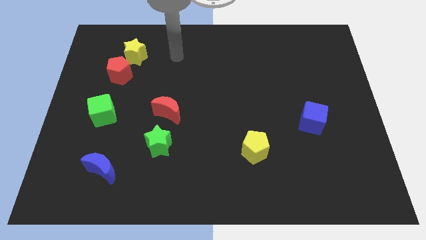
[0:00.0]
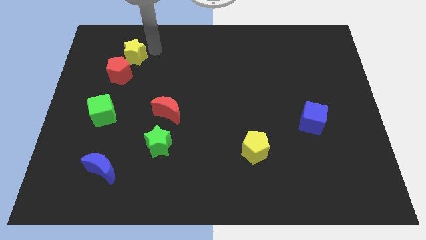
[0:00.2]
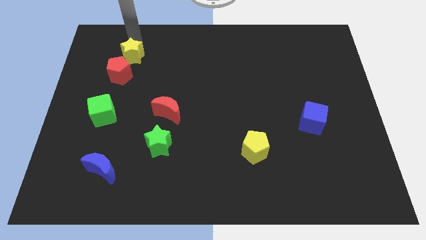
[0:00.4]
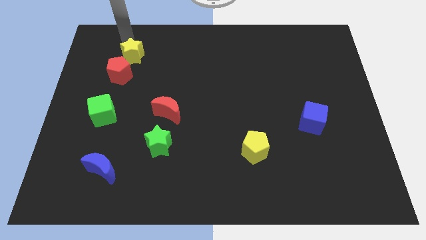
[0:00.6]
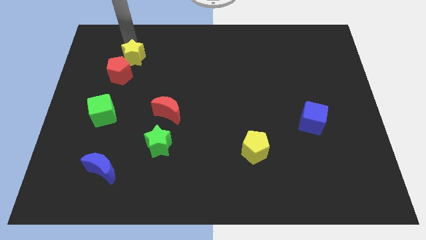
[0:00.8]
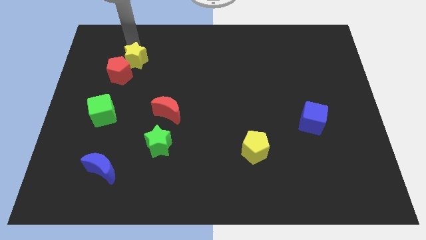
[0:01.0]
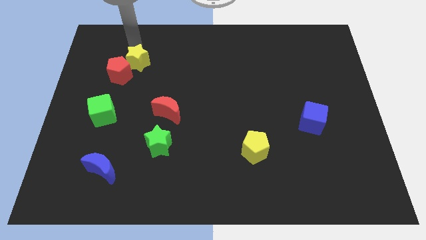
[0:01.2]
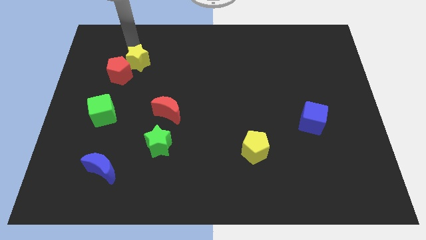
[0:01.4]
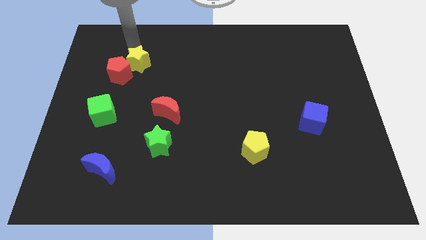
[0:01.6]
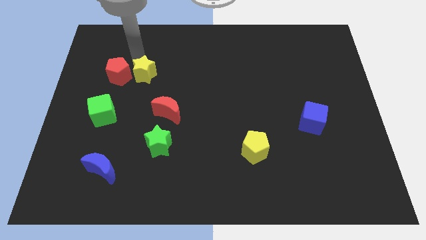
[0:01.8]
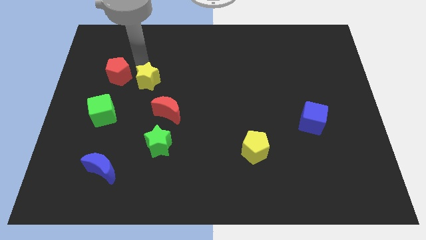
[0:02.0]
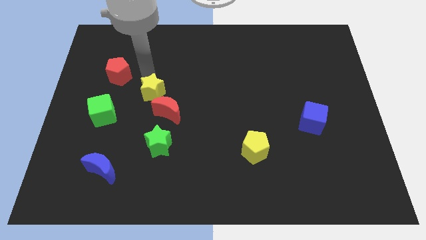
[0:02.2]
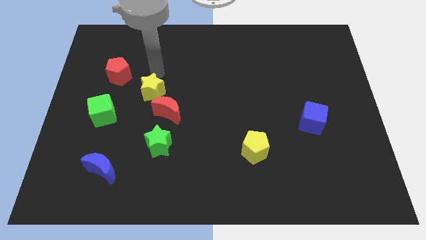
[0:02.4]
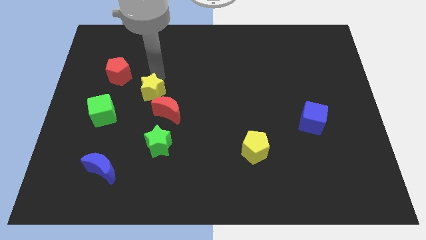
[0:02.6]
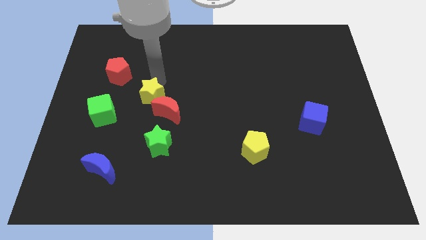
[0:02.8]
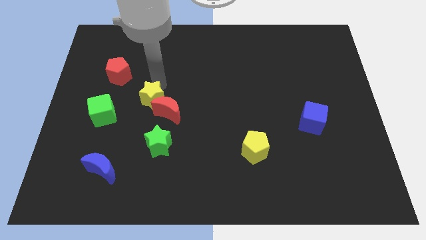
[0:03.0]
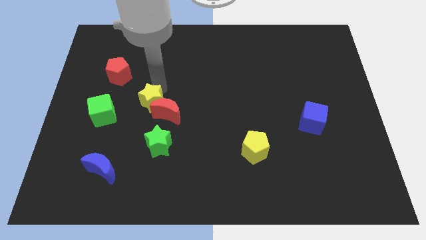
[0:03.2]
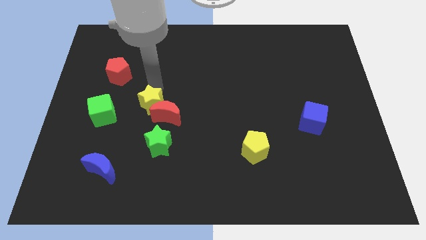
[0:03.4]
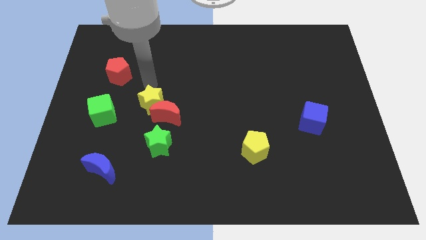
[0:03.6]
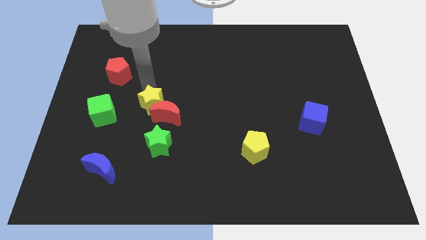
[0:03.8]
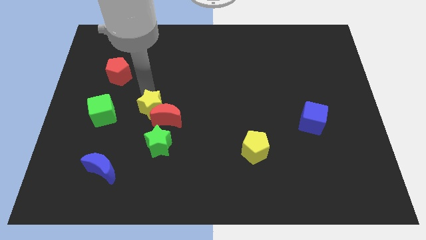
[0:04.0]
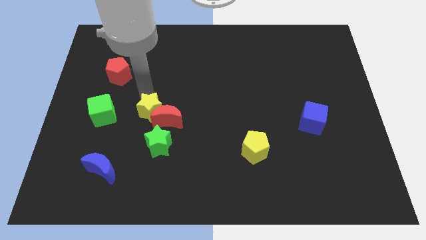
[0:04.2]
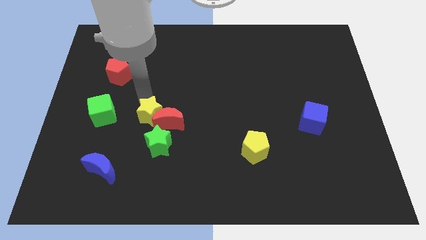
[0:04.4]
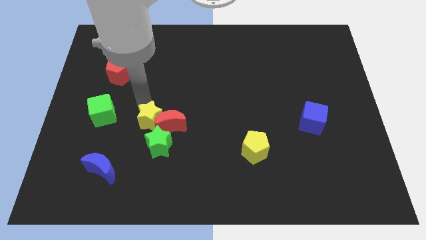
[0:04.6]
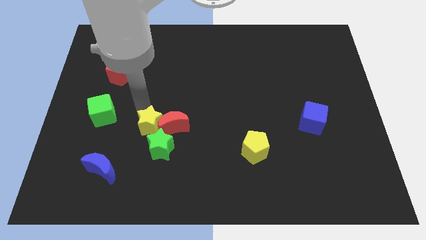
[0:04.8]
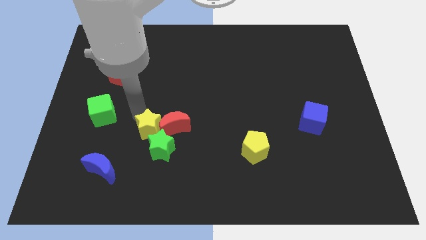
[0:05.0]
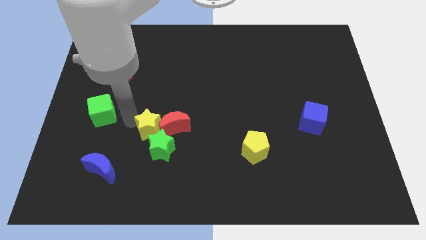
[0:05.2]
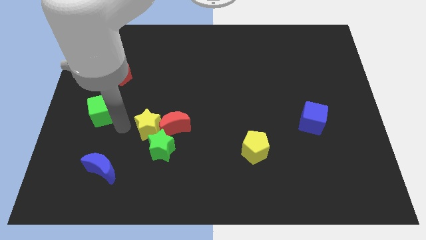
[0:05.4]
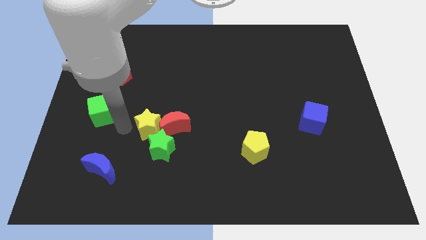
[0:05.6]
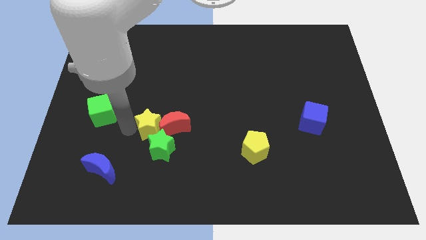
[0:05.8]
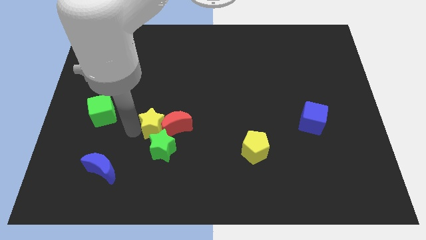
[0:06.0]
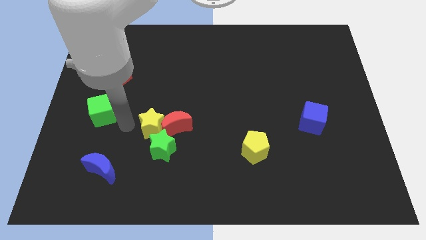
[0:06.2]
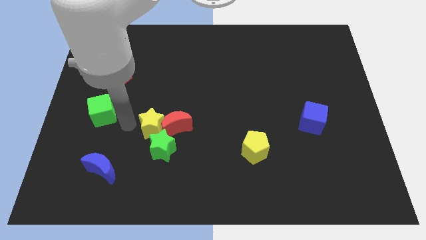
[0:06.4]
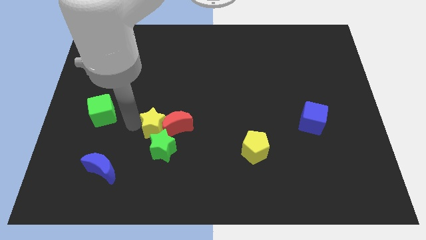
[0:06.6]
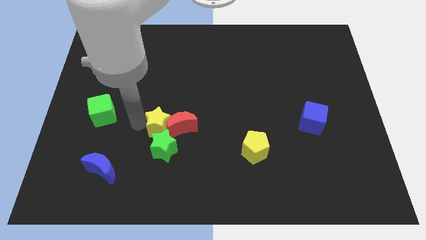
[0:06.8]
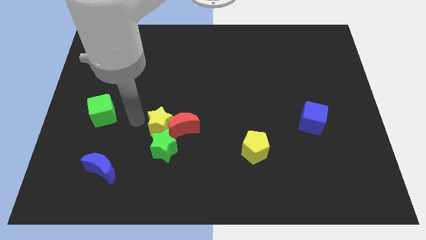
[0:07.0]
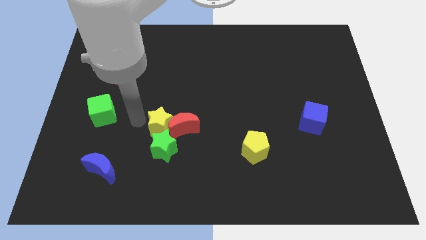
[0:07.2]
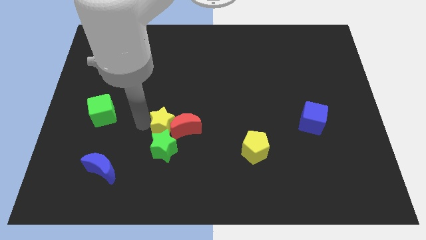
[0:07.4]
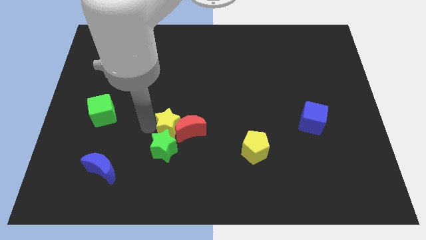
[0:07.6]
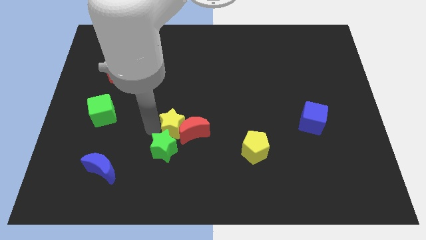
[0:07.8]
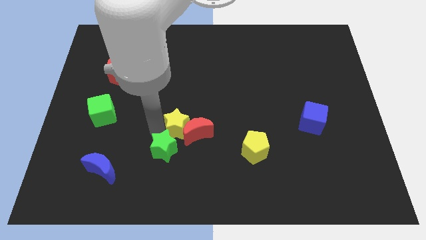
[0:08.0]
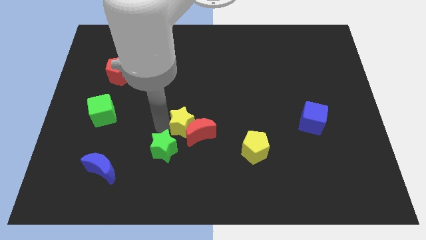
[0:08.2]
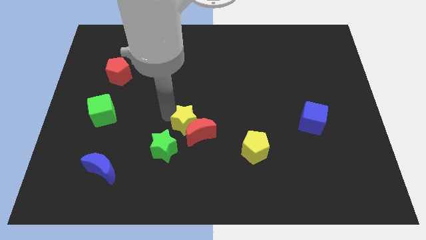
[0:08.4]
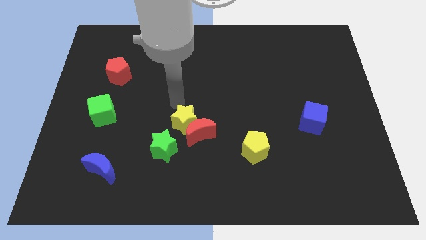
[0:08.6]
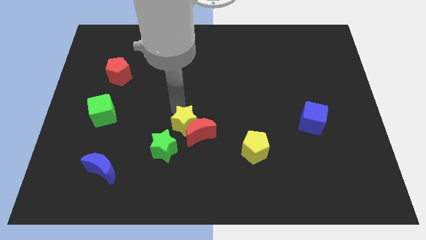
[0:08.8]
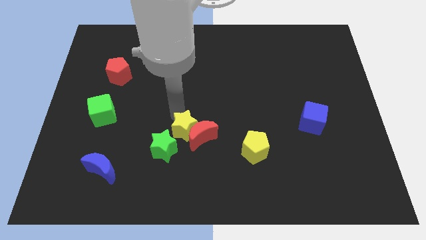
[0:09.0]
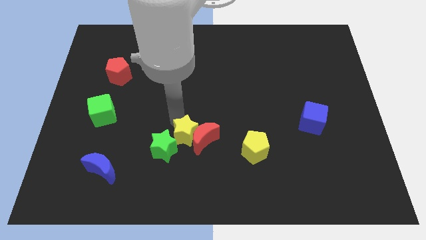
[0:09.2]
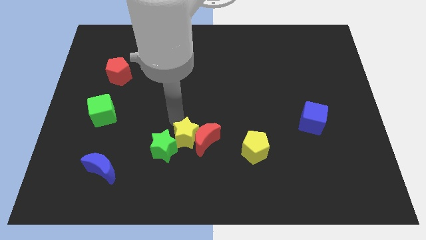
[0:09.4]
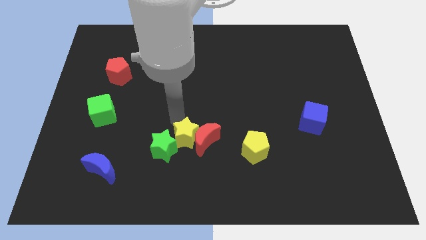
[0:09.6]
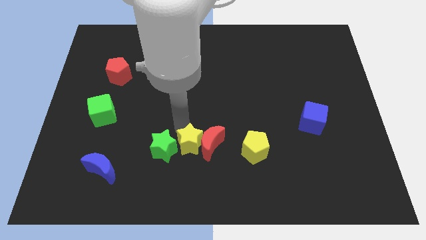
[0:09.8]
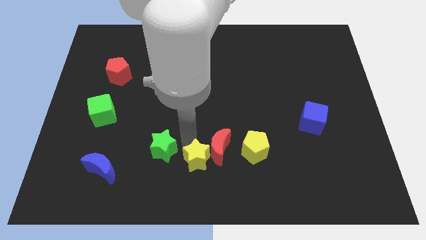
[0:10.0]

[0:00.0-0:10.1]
push the yellow star to the bottom side

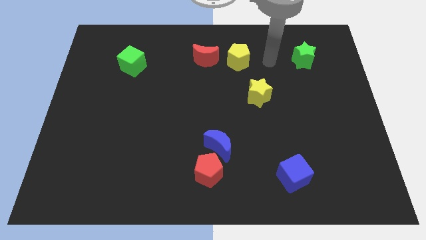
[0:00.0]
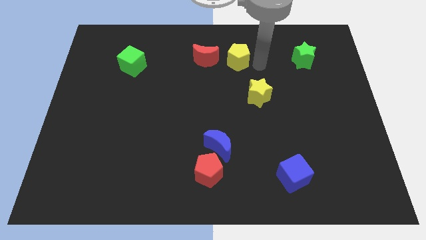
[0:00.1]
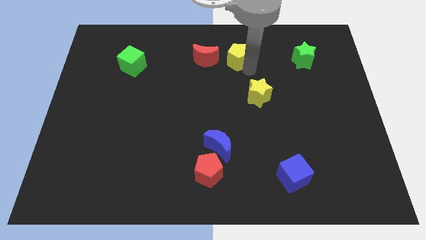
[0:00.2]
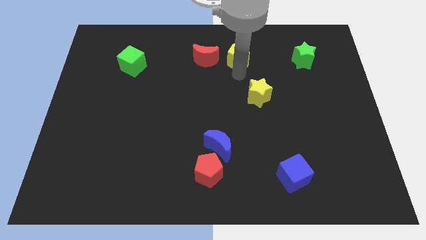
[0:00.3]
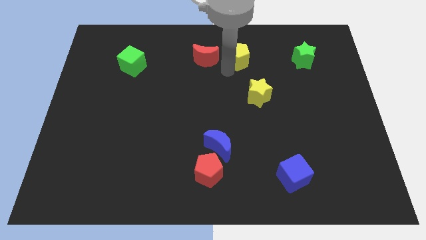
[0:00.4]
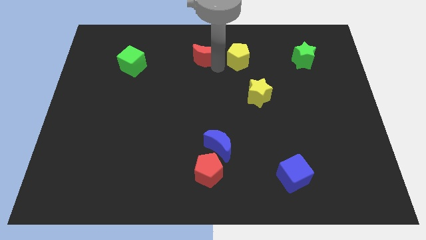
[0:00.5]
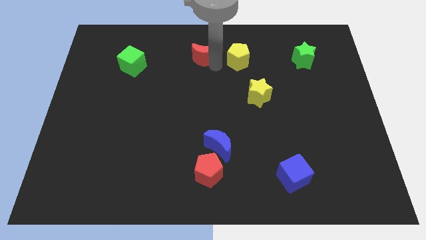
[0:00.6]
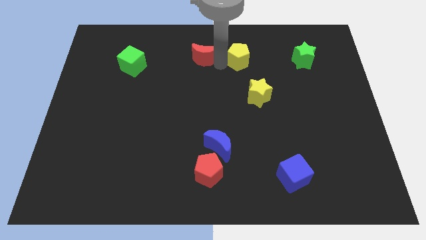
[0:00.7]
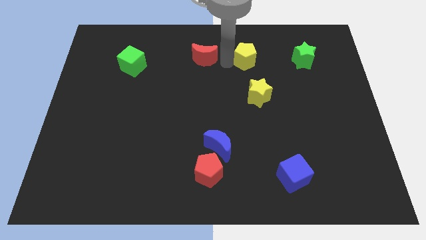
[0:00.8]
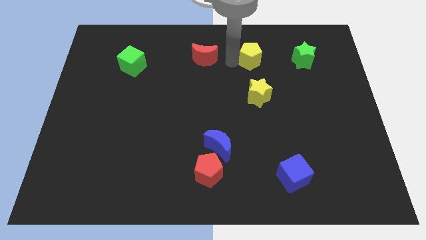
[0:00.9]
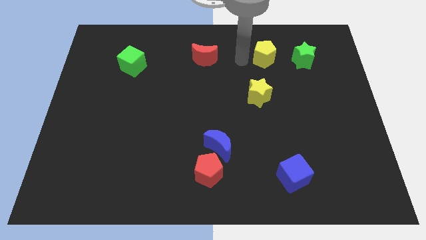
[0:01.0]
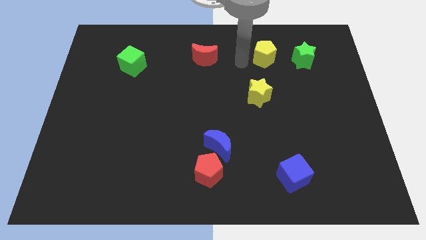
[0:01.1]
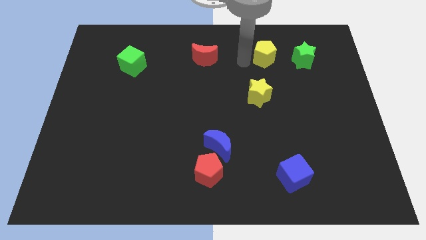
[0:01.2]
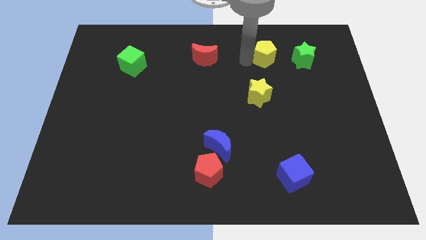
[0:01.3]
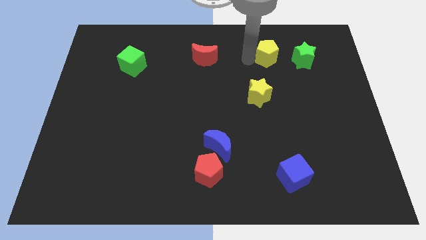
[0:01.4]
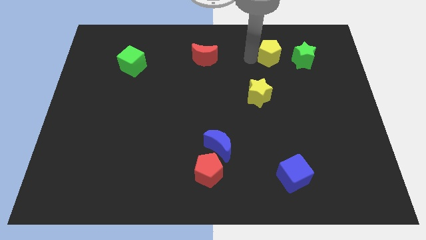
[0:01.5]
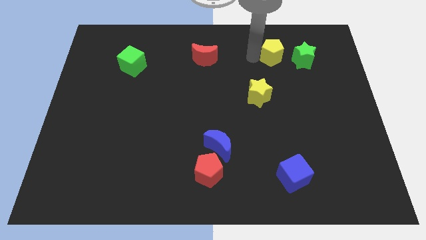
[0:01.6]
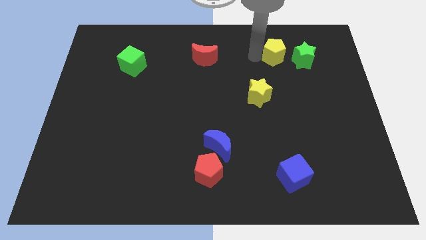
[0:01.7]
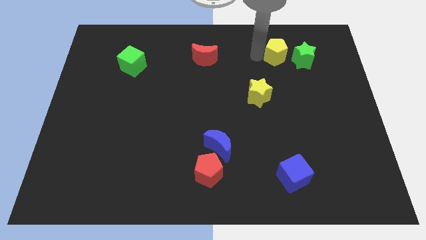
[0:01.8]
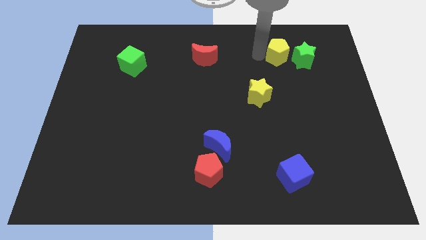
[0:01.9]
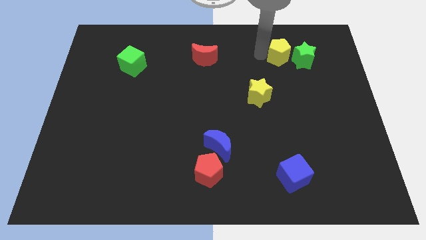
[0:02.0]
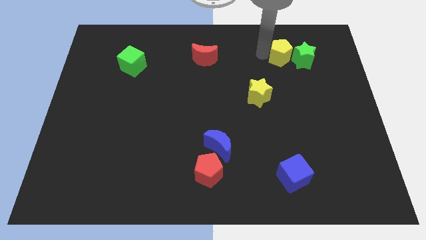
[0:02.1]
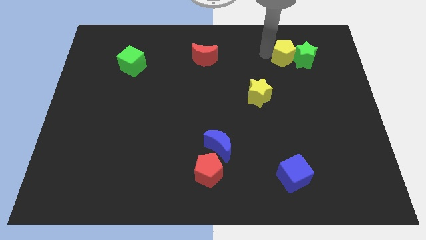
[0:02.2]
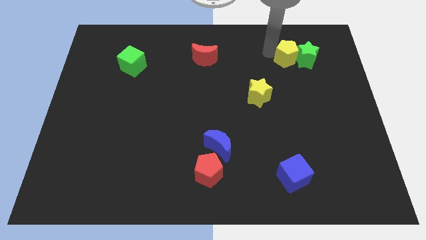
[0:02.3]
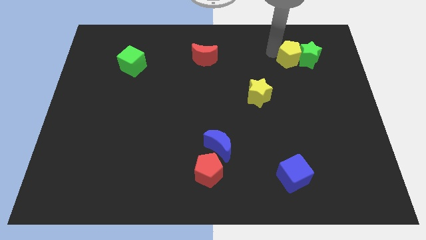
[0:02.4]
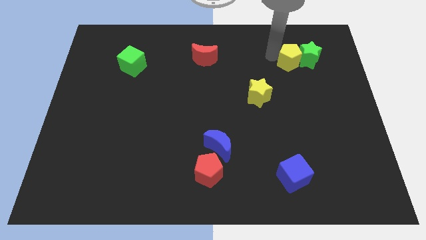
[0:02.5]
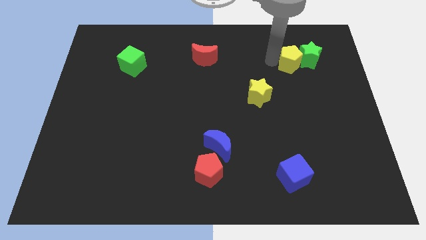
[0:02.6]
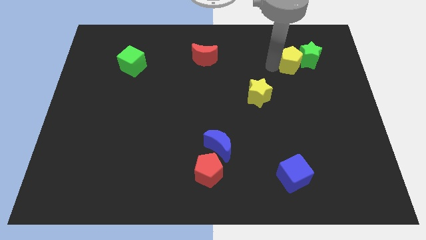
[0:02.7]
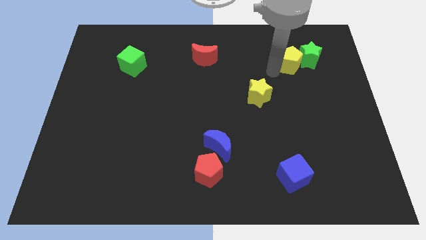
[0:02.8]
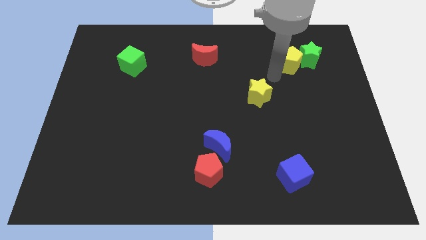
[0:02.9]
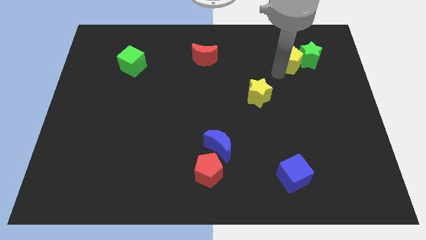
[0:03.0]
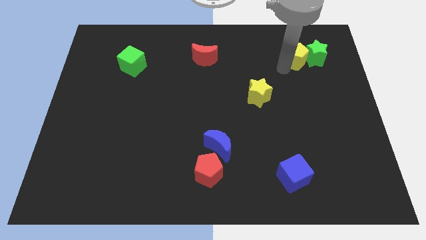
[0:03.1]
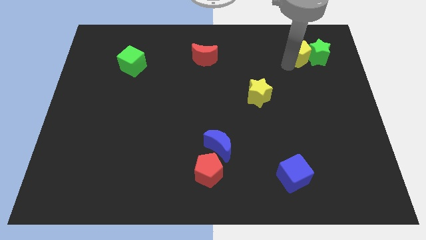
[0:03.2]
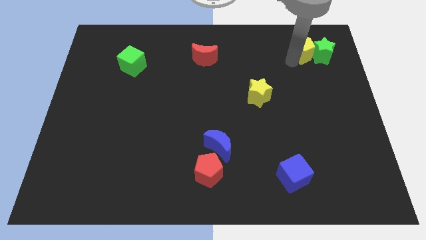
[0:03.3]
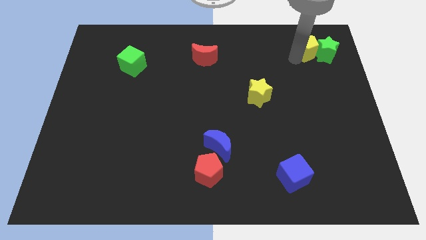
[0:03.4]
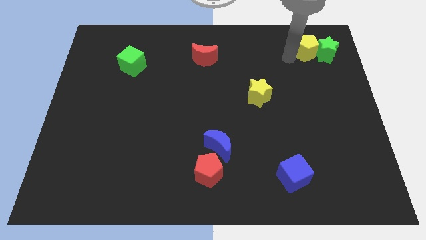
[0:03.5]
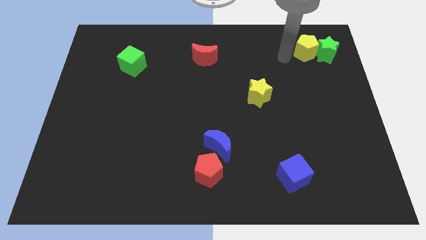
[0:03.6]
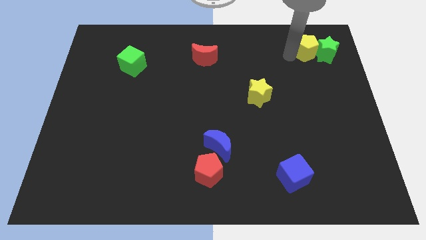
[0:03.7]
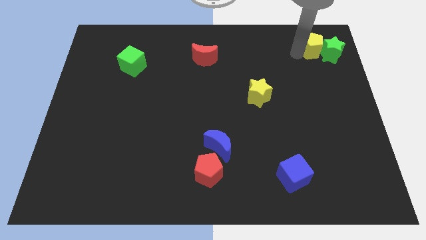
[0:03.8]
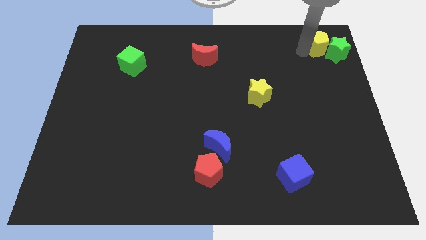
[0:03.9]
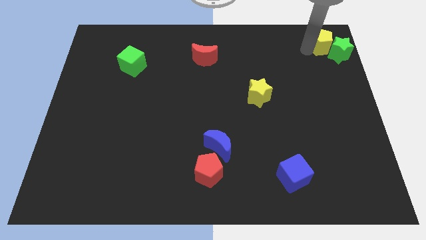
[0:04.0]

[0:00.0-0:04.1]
move the yellow pentagon to the upper right corner
